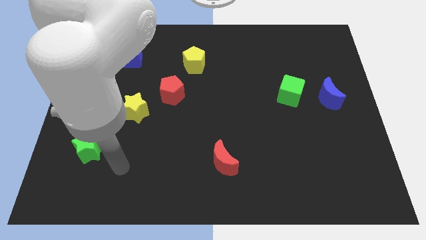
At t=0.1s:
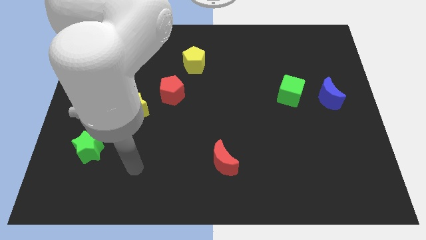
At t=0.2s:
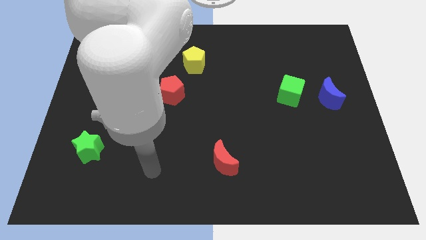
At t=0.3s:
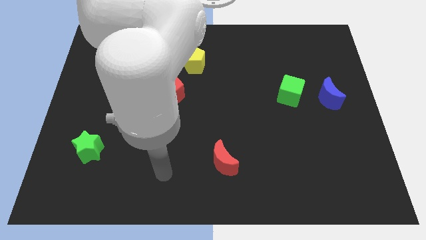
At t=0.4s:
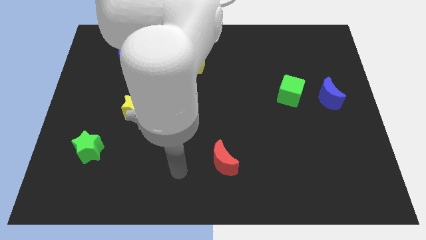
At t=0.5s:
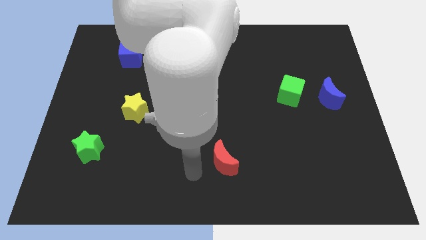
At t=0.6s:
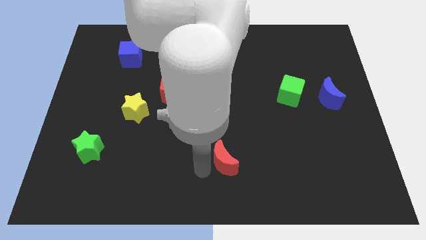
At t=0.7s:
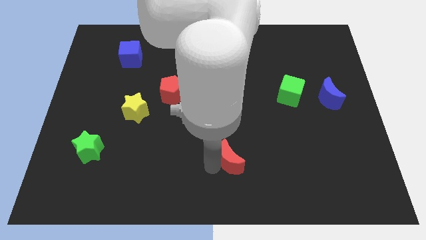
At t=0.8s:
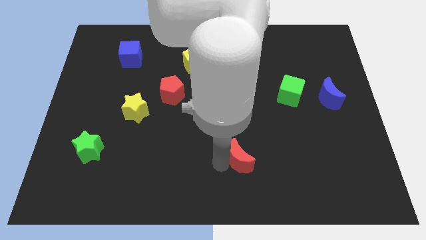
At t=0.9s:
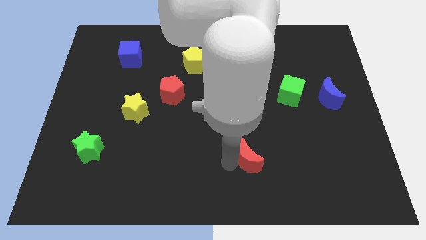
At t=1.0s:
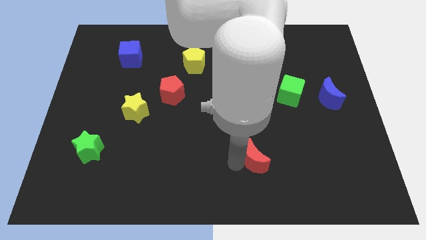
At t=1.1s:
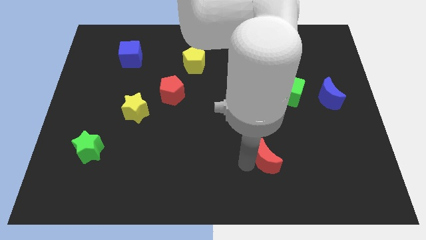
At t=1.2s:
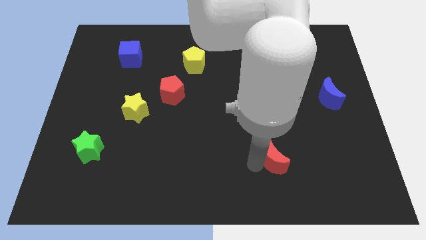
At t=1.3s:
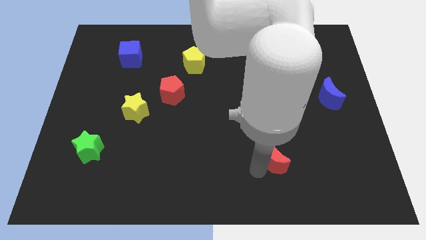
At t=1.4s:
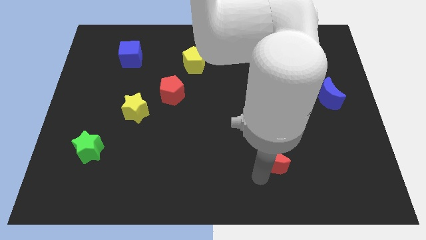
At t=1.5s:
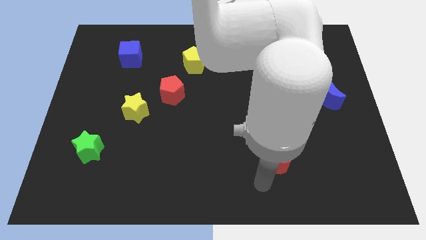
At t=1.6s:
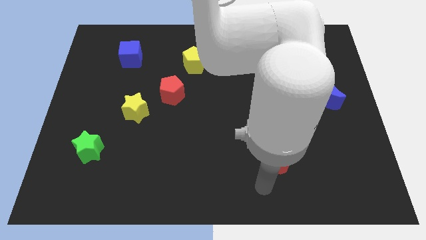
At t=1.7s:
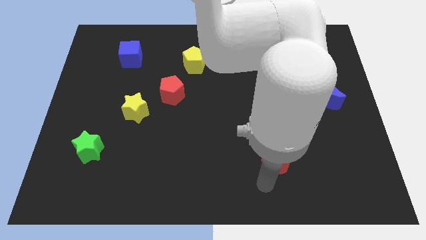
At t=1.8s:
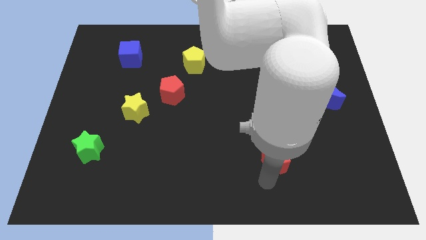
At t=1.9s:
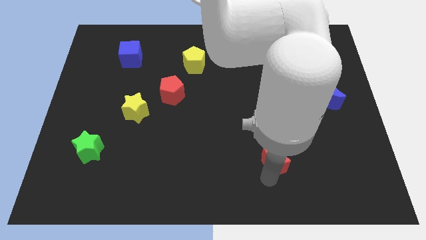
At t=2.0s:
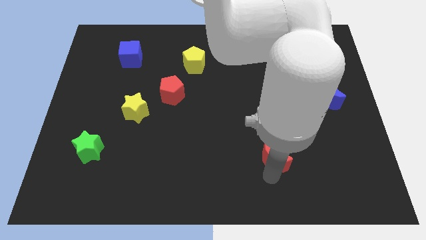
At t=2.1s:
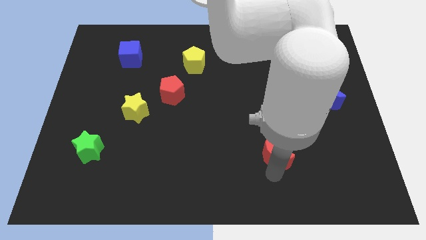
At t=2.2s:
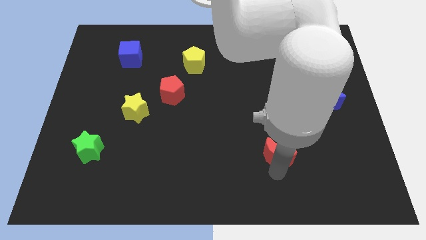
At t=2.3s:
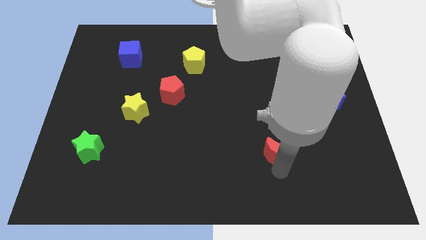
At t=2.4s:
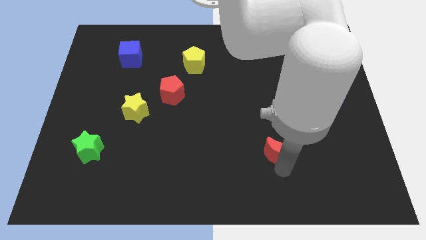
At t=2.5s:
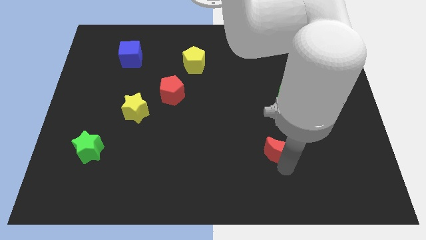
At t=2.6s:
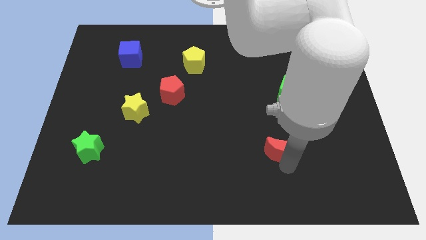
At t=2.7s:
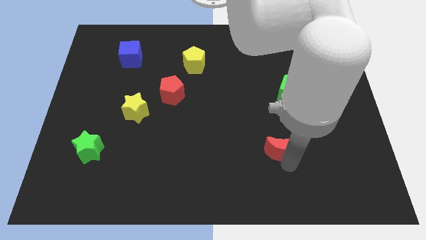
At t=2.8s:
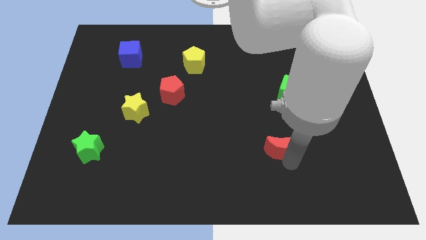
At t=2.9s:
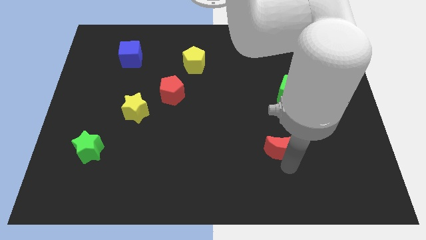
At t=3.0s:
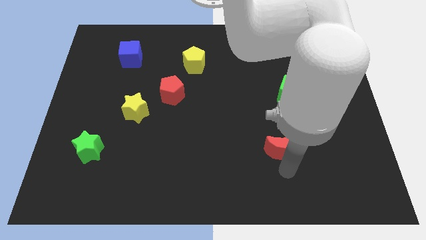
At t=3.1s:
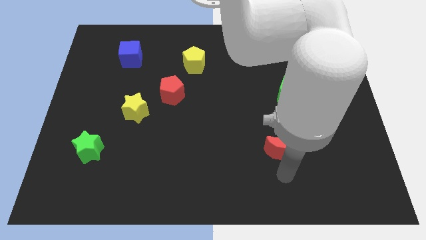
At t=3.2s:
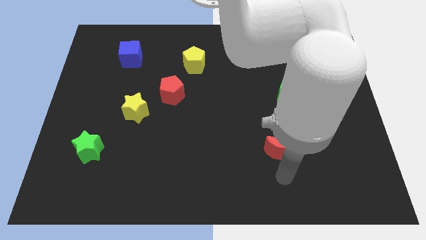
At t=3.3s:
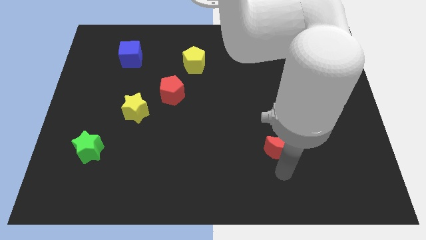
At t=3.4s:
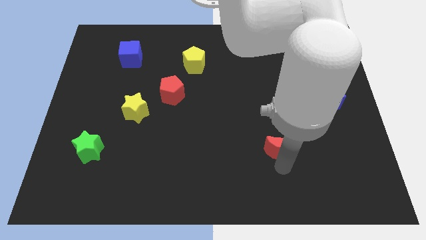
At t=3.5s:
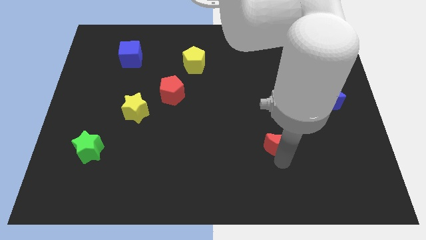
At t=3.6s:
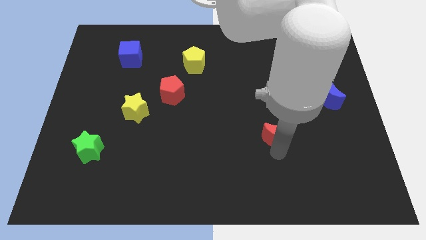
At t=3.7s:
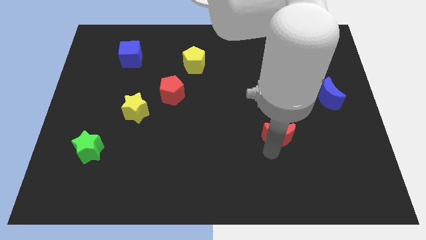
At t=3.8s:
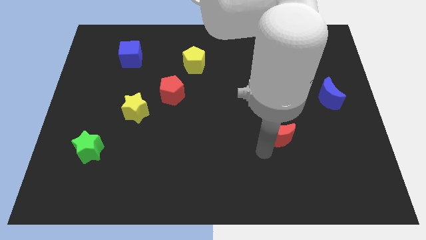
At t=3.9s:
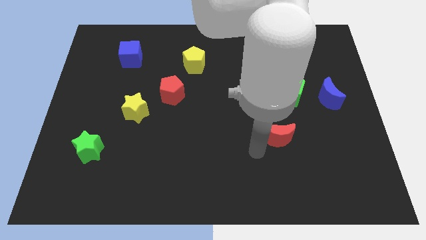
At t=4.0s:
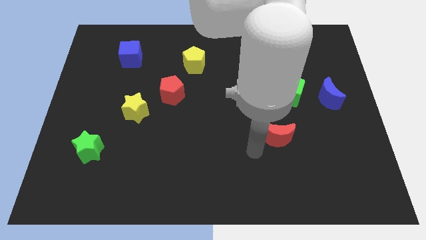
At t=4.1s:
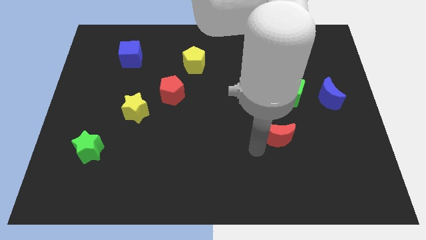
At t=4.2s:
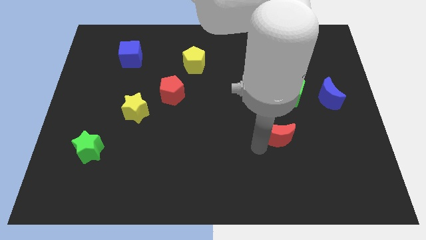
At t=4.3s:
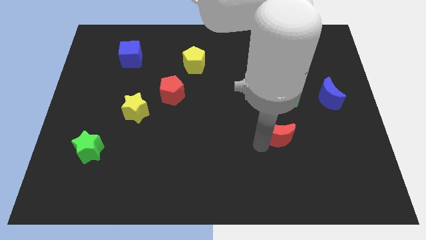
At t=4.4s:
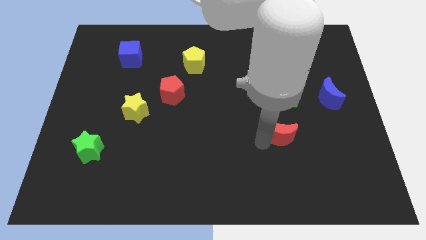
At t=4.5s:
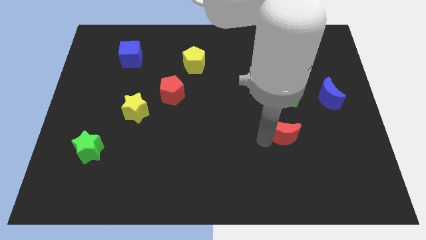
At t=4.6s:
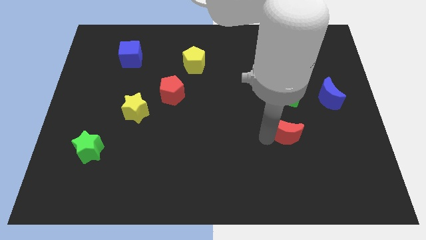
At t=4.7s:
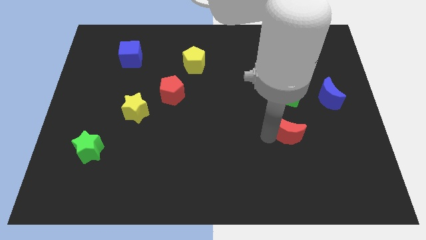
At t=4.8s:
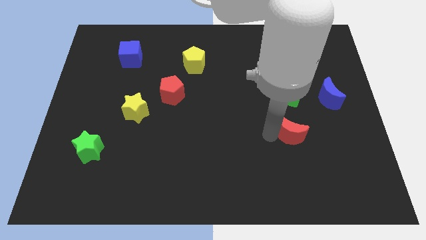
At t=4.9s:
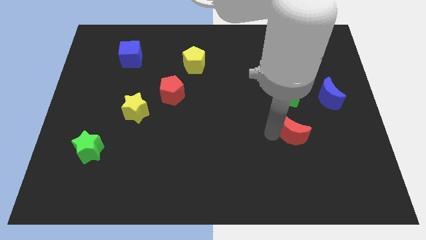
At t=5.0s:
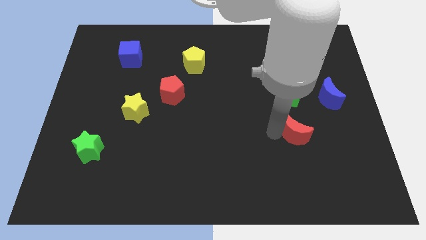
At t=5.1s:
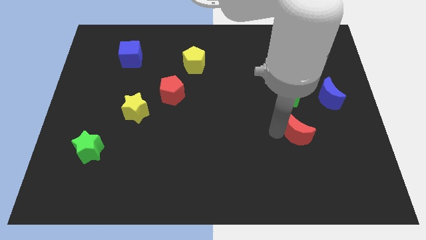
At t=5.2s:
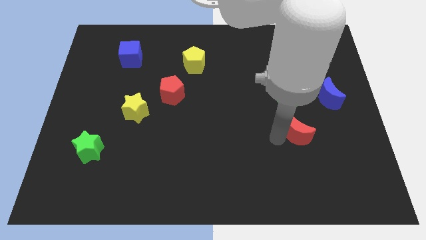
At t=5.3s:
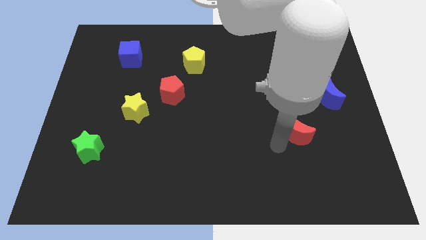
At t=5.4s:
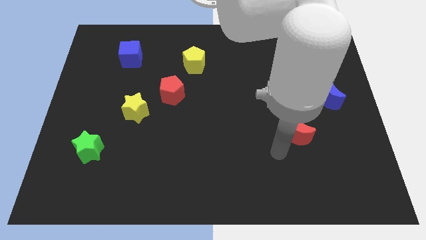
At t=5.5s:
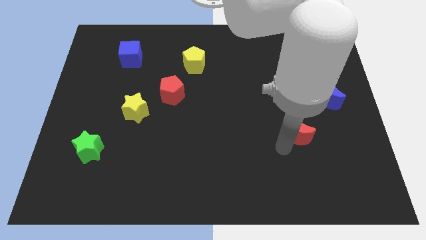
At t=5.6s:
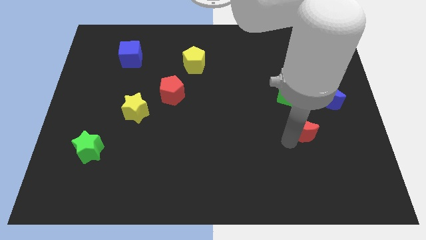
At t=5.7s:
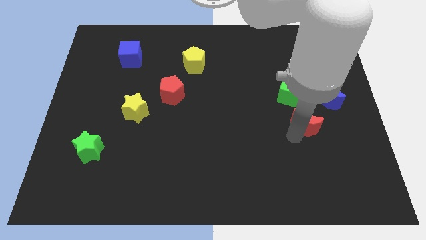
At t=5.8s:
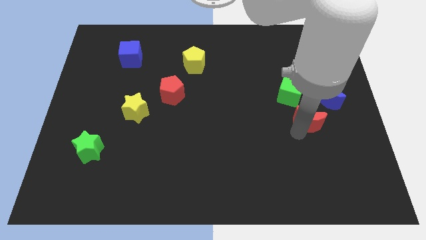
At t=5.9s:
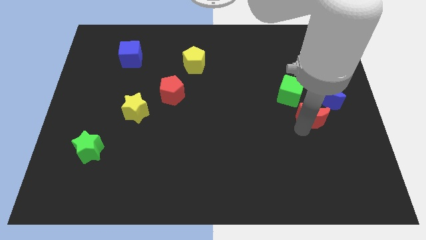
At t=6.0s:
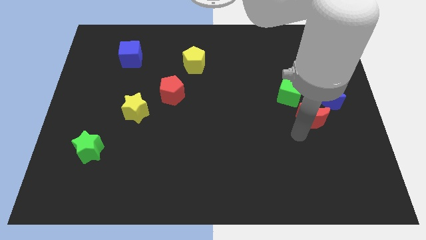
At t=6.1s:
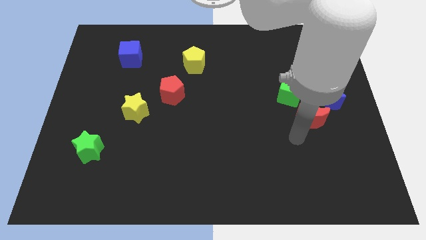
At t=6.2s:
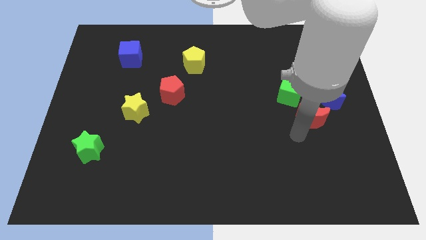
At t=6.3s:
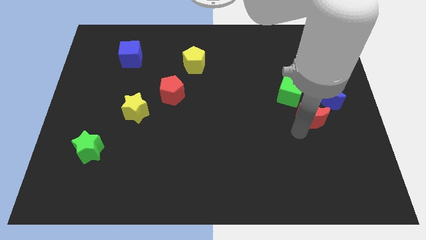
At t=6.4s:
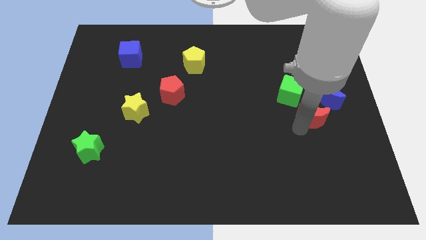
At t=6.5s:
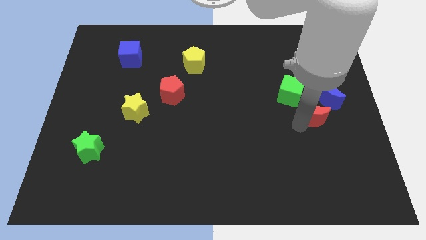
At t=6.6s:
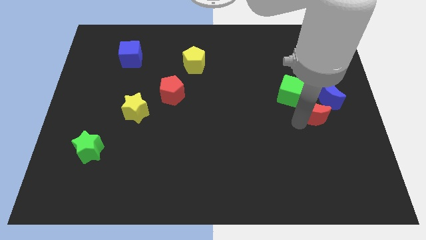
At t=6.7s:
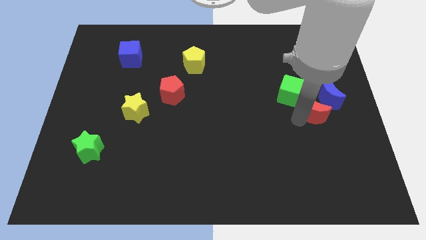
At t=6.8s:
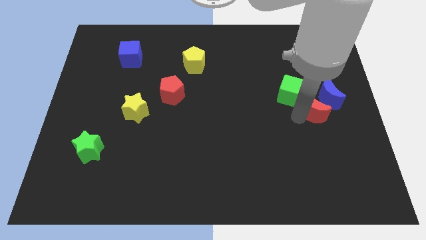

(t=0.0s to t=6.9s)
slide the red moon to the blue moon
